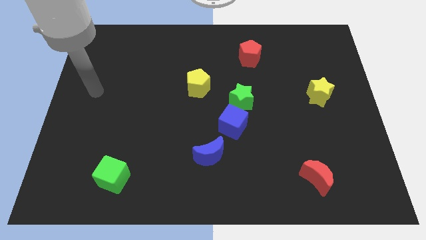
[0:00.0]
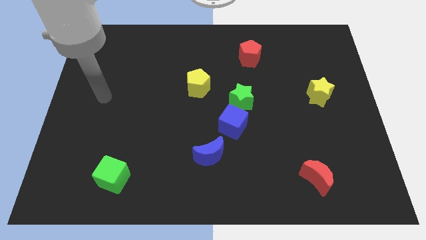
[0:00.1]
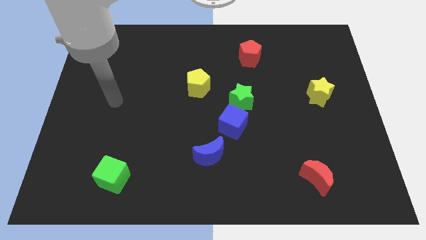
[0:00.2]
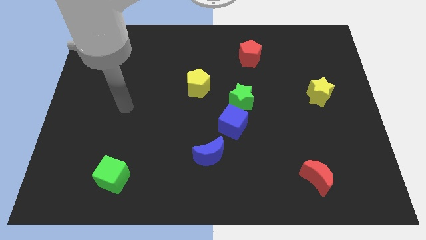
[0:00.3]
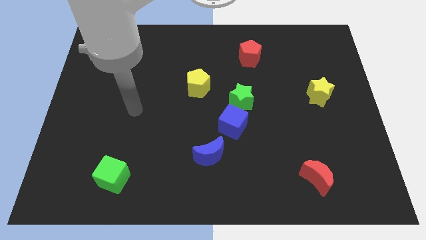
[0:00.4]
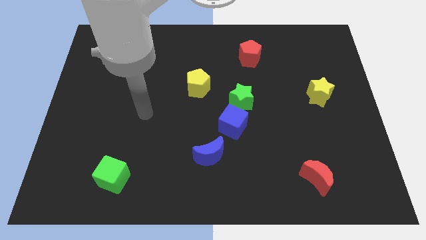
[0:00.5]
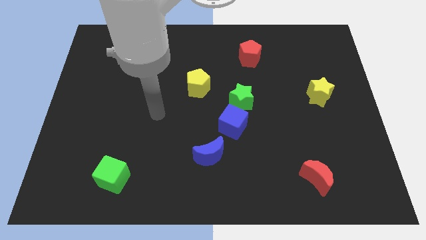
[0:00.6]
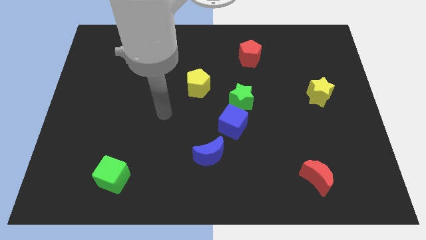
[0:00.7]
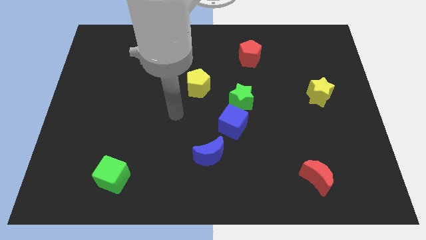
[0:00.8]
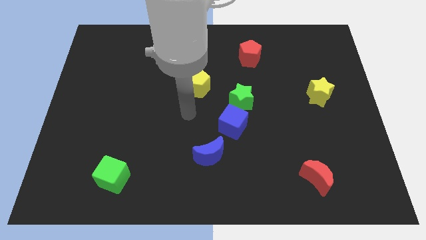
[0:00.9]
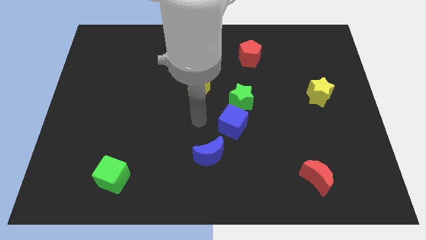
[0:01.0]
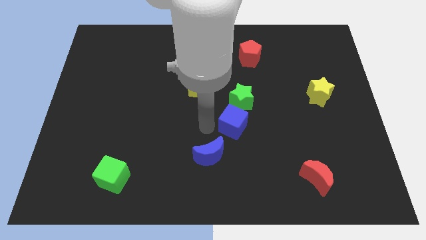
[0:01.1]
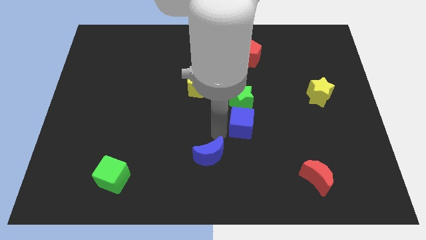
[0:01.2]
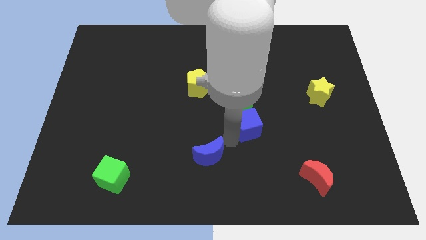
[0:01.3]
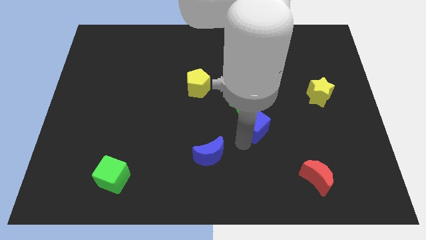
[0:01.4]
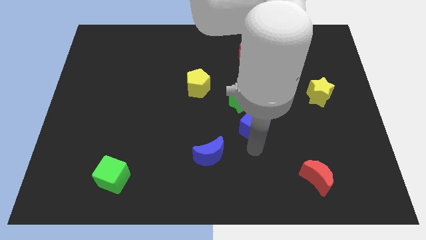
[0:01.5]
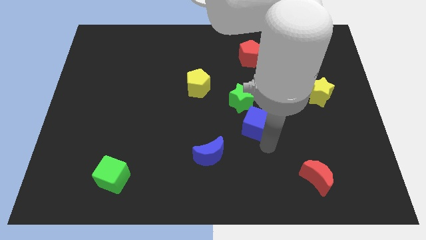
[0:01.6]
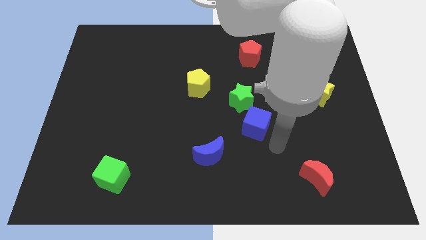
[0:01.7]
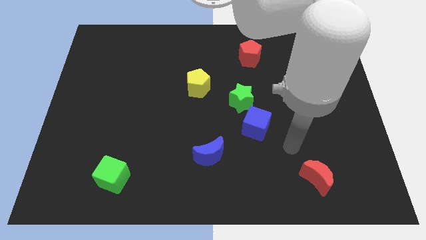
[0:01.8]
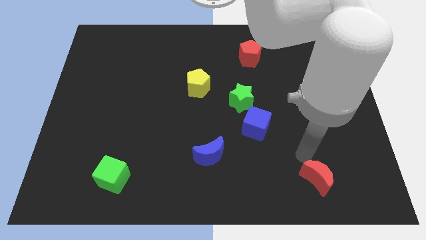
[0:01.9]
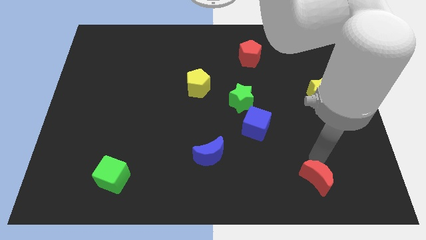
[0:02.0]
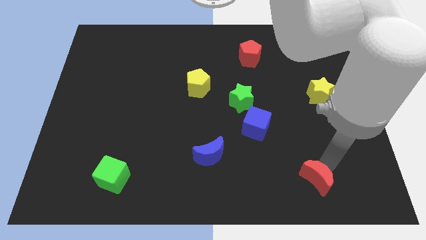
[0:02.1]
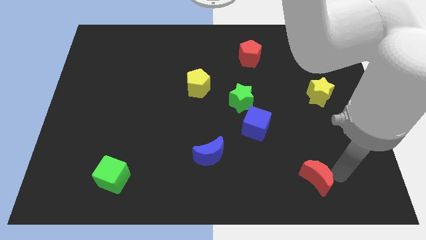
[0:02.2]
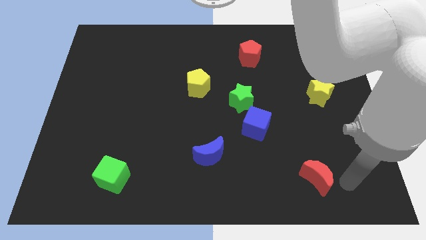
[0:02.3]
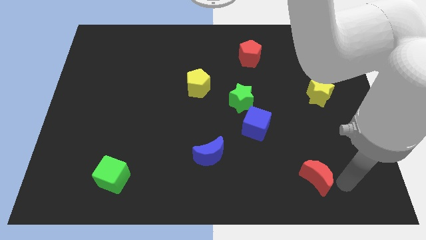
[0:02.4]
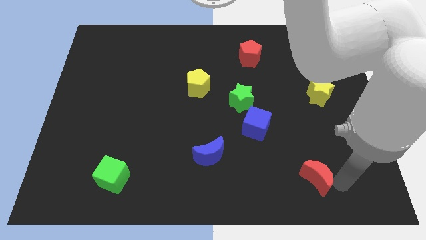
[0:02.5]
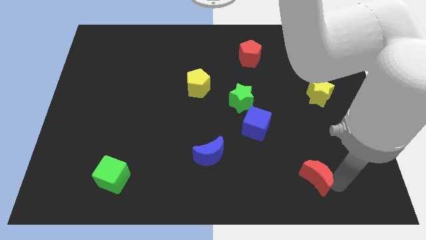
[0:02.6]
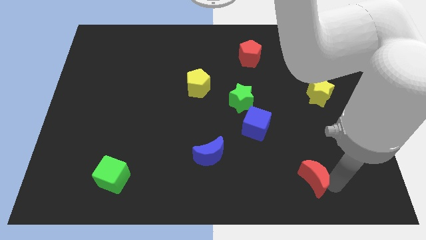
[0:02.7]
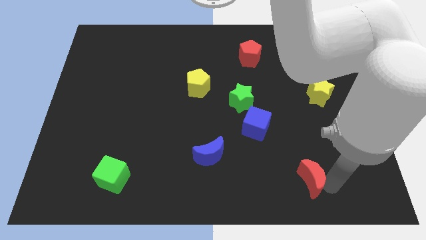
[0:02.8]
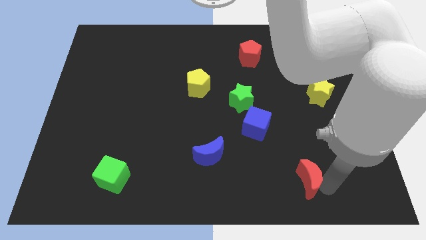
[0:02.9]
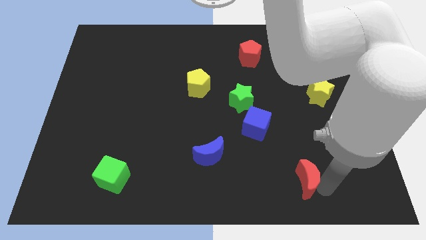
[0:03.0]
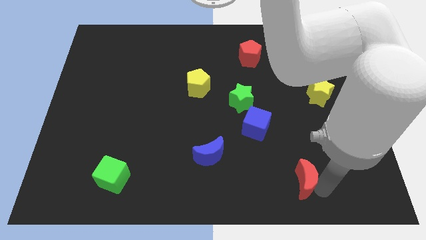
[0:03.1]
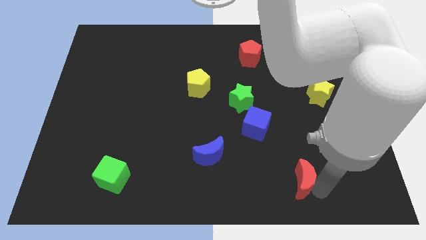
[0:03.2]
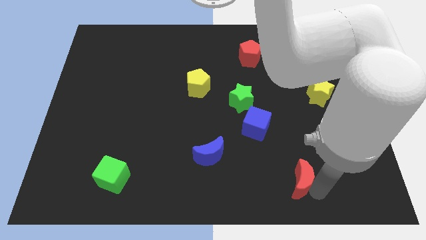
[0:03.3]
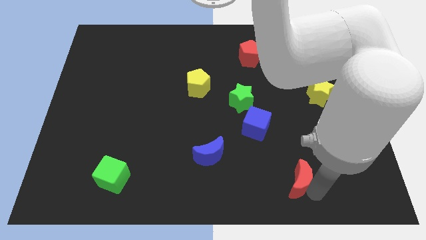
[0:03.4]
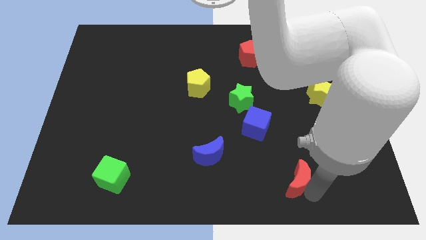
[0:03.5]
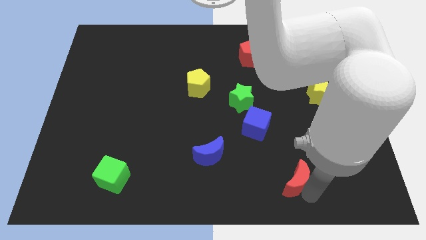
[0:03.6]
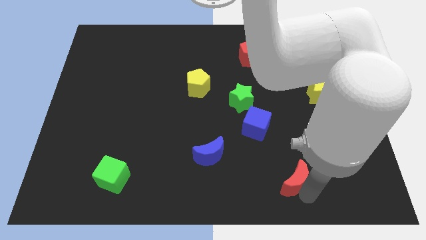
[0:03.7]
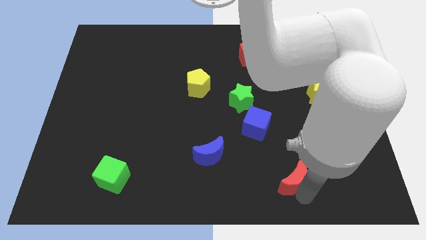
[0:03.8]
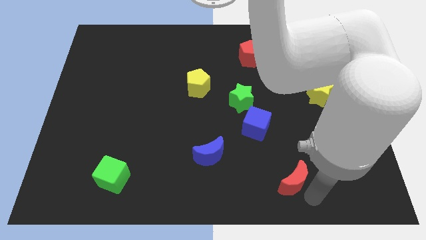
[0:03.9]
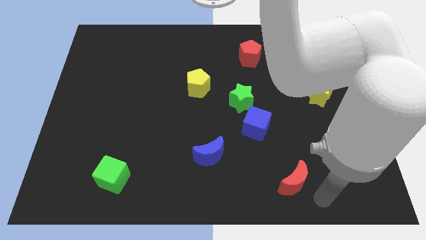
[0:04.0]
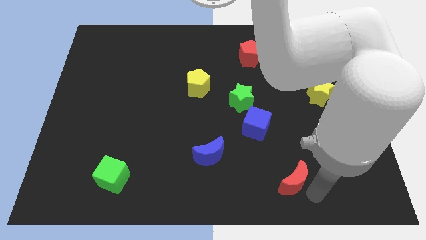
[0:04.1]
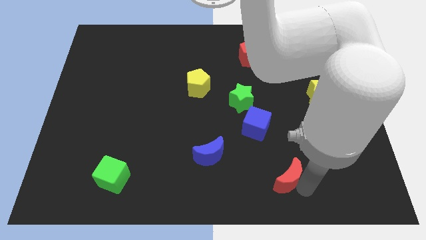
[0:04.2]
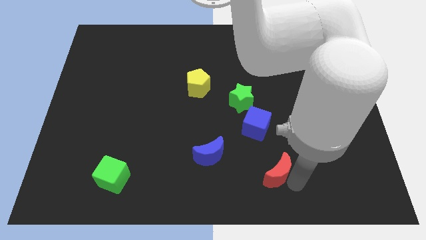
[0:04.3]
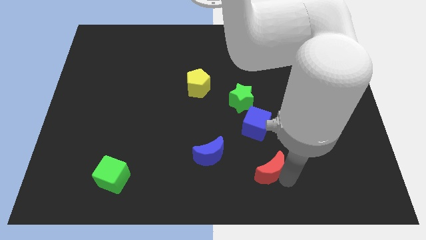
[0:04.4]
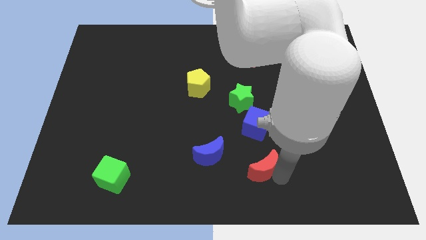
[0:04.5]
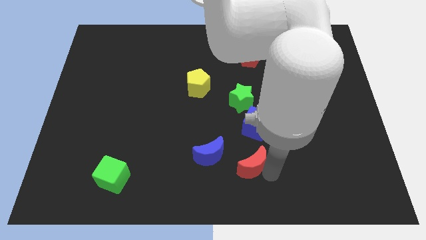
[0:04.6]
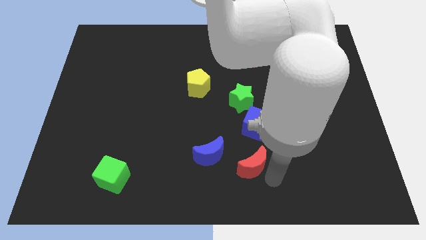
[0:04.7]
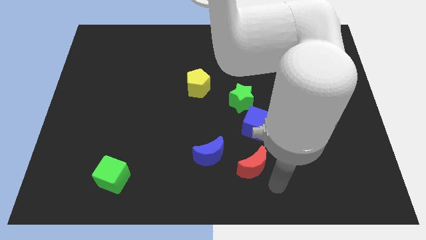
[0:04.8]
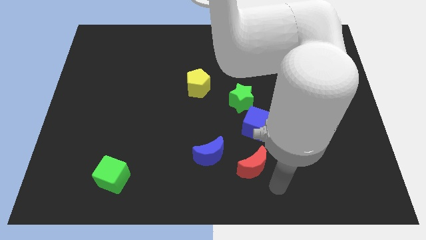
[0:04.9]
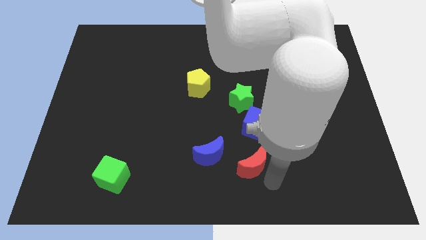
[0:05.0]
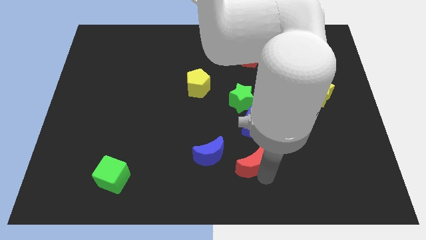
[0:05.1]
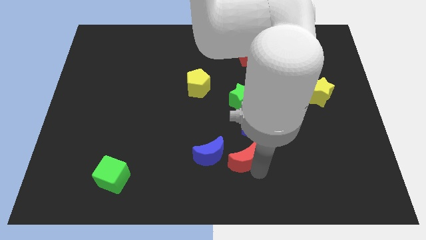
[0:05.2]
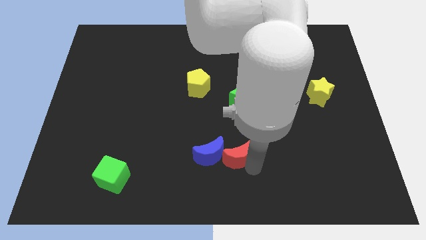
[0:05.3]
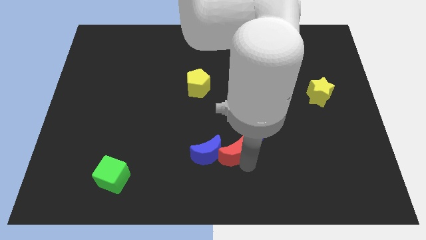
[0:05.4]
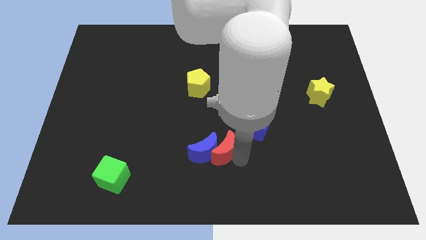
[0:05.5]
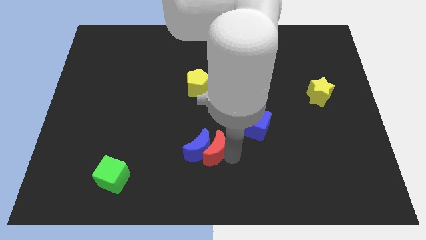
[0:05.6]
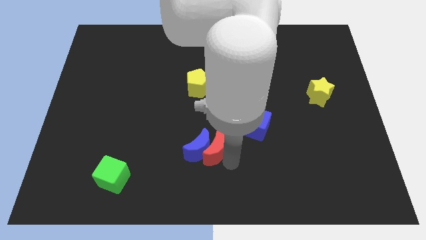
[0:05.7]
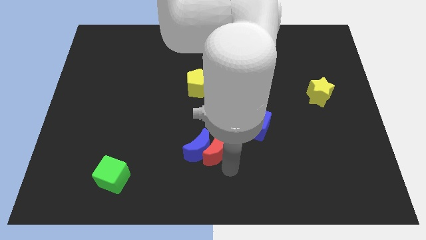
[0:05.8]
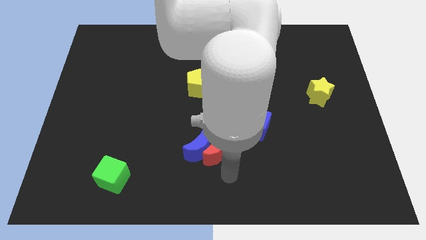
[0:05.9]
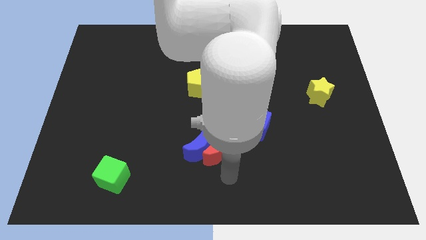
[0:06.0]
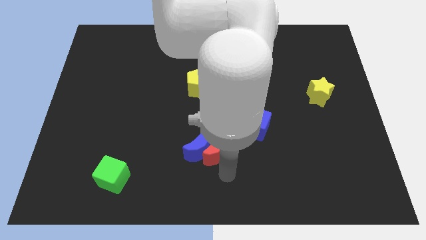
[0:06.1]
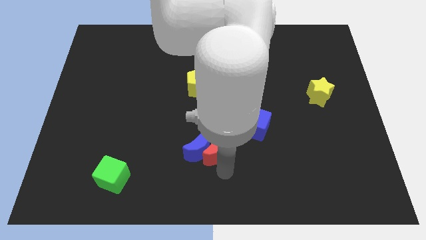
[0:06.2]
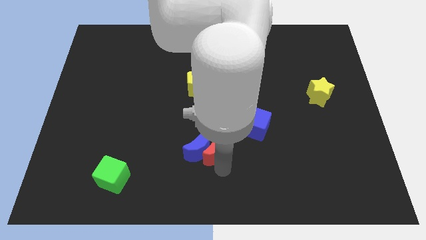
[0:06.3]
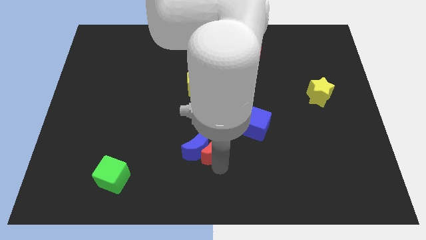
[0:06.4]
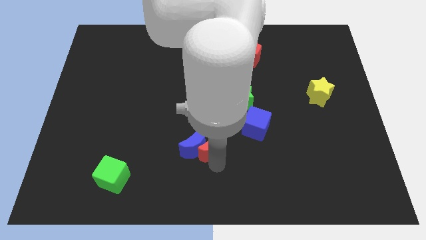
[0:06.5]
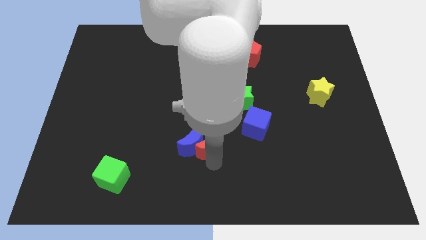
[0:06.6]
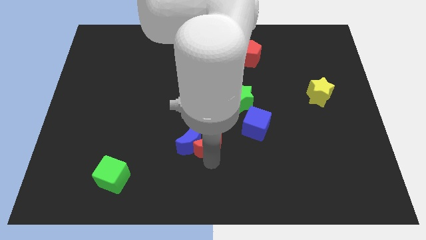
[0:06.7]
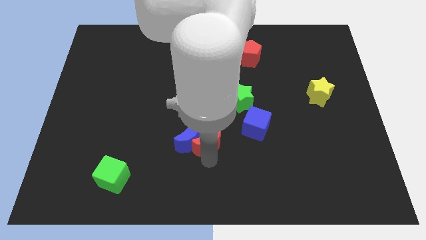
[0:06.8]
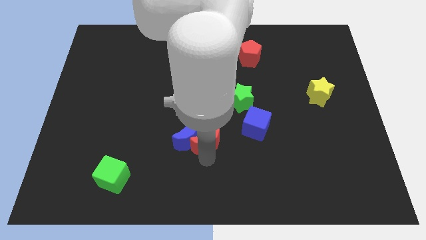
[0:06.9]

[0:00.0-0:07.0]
move the red moon to the left of the blue cube
